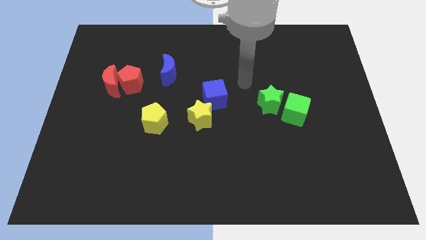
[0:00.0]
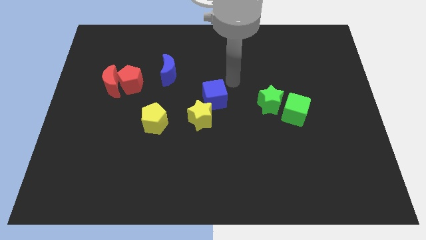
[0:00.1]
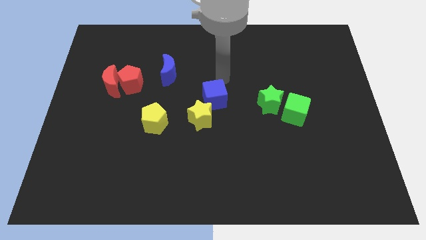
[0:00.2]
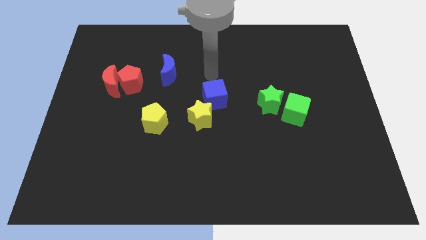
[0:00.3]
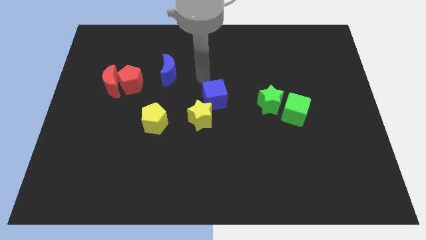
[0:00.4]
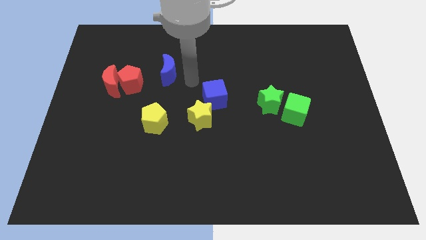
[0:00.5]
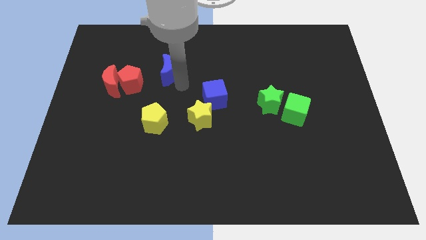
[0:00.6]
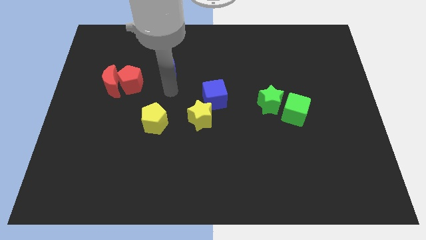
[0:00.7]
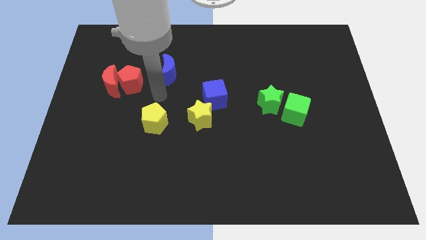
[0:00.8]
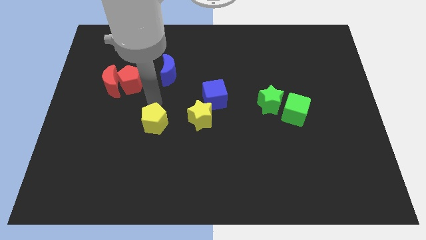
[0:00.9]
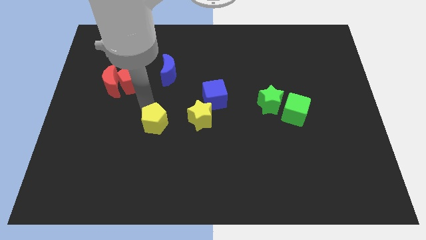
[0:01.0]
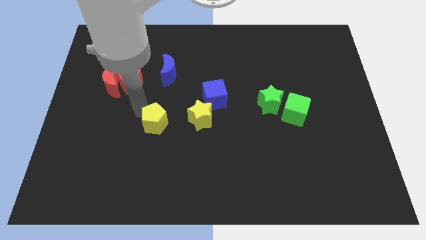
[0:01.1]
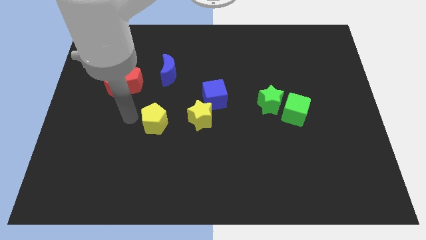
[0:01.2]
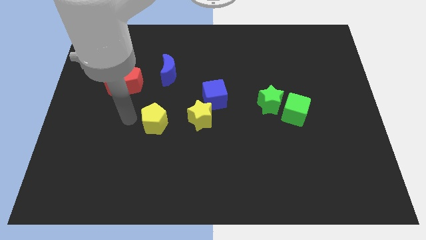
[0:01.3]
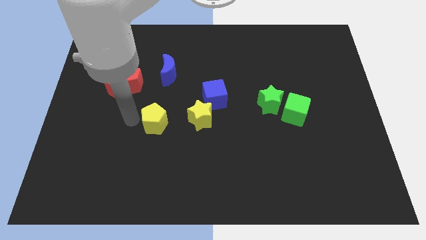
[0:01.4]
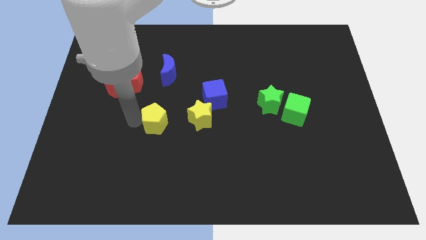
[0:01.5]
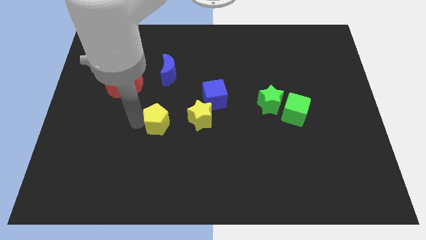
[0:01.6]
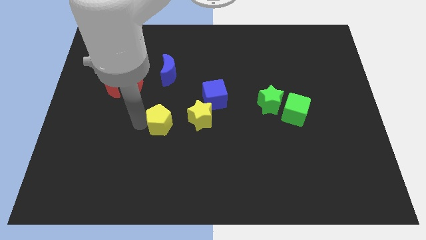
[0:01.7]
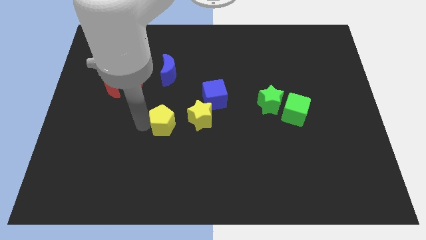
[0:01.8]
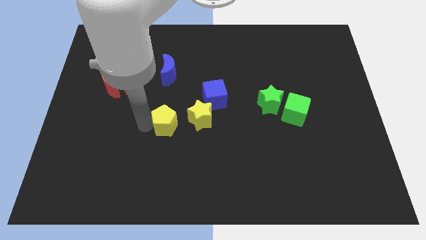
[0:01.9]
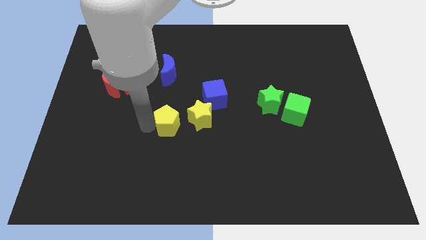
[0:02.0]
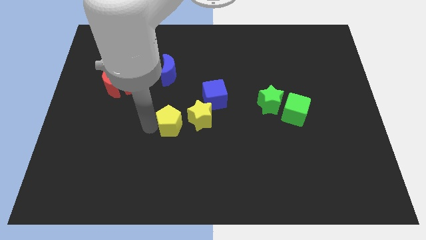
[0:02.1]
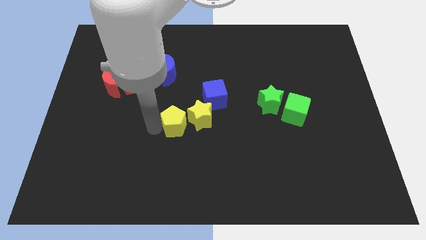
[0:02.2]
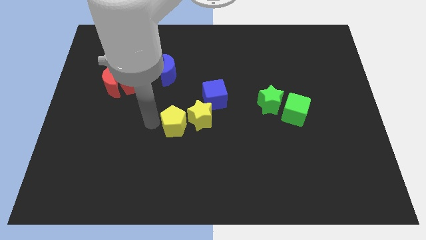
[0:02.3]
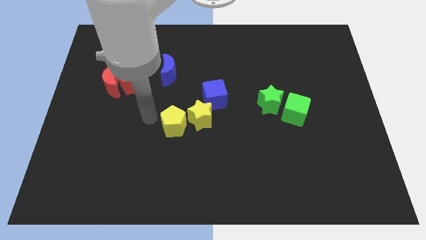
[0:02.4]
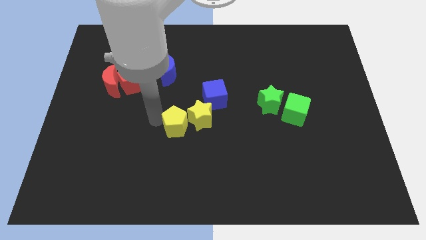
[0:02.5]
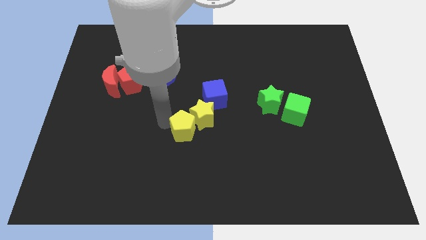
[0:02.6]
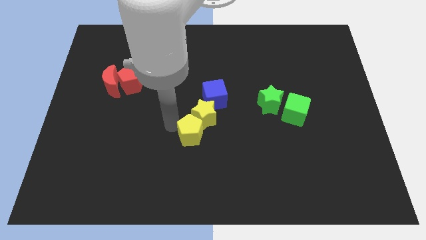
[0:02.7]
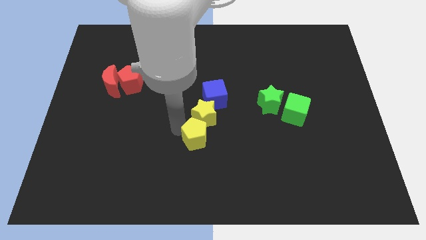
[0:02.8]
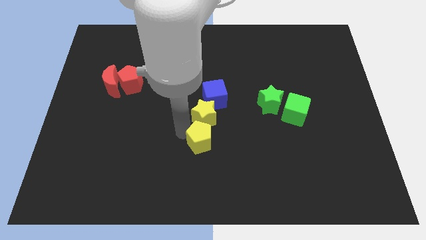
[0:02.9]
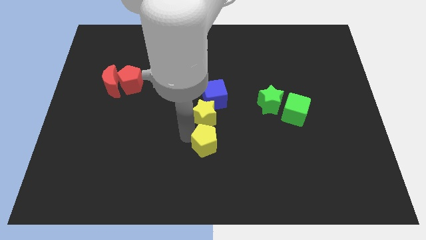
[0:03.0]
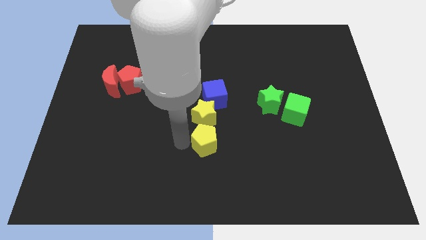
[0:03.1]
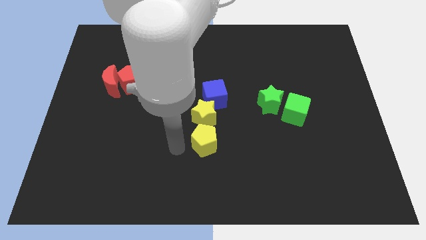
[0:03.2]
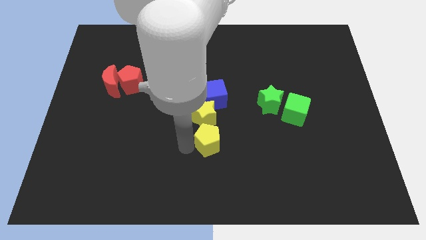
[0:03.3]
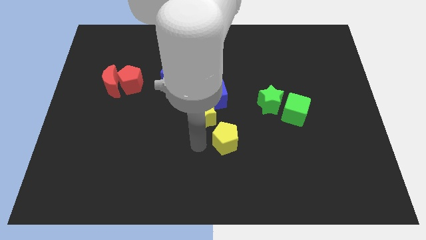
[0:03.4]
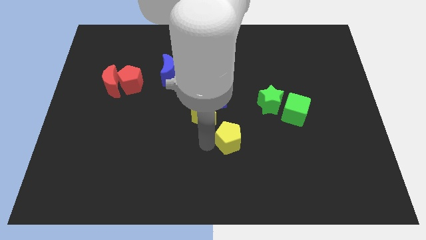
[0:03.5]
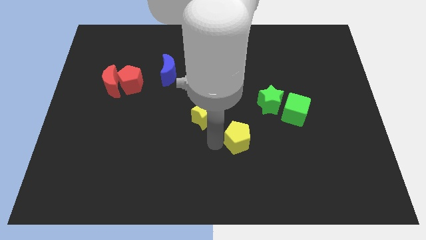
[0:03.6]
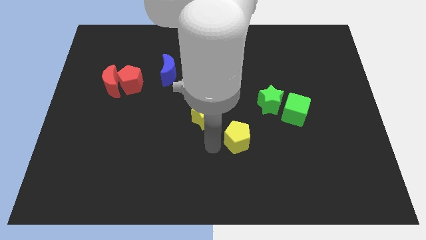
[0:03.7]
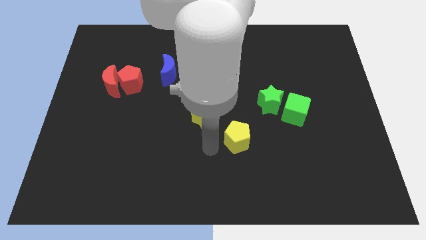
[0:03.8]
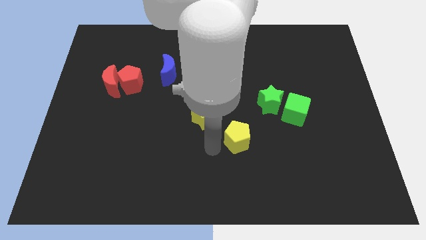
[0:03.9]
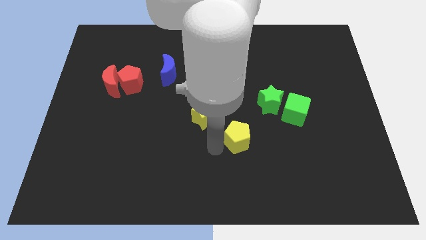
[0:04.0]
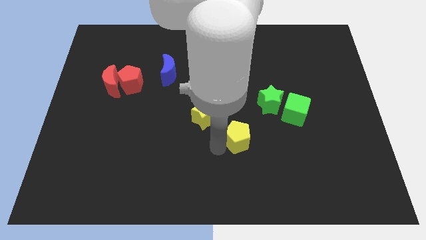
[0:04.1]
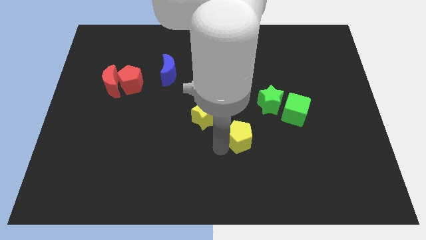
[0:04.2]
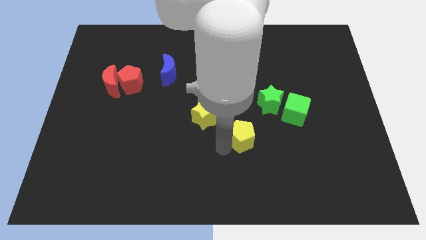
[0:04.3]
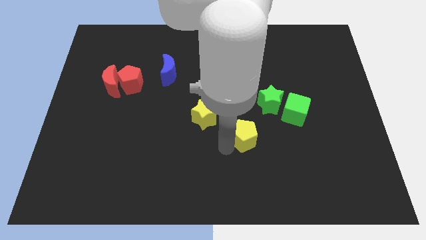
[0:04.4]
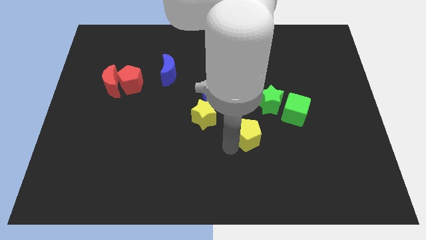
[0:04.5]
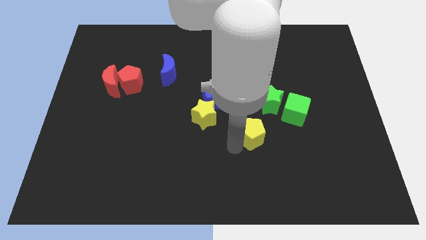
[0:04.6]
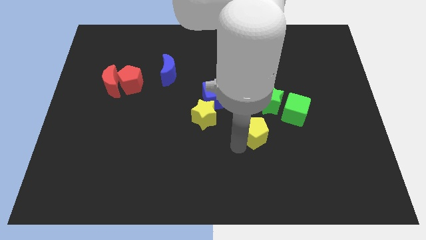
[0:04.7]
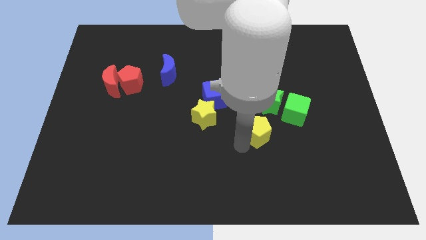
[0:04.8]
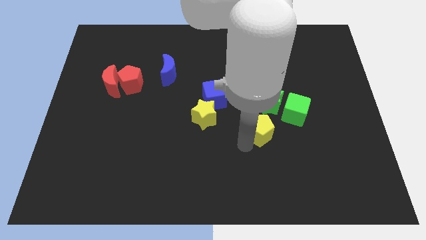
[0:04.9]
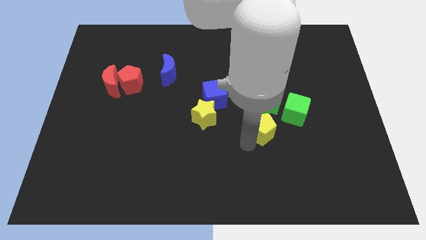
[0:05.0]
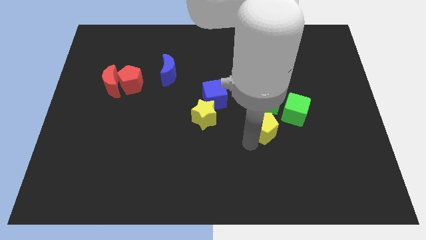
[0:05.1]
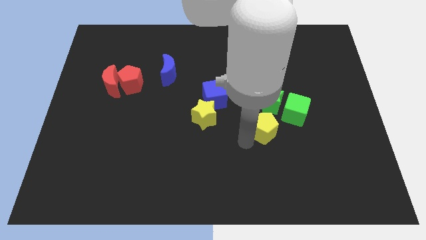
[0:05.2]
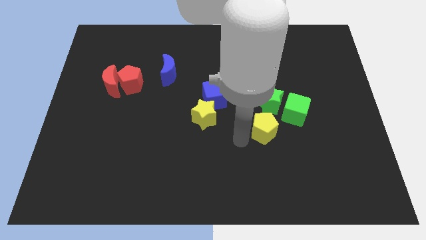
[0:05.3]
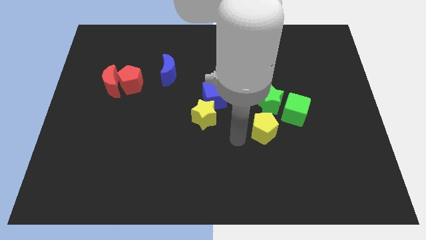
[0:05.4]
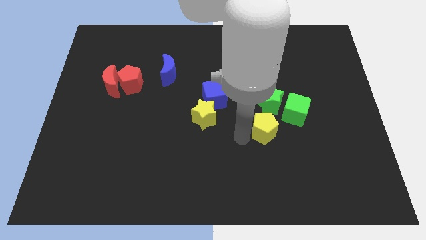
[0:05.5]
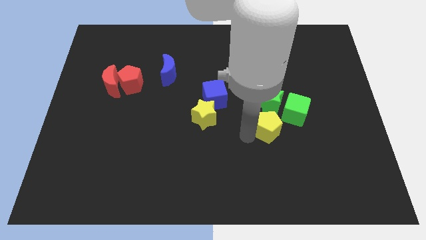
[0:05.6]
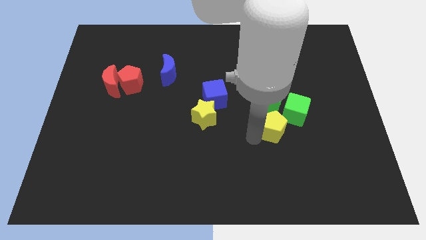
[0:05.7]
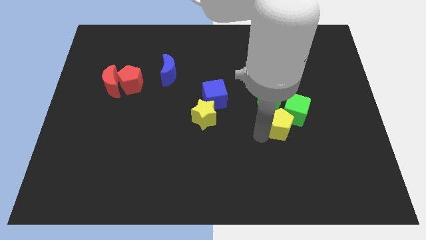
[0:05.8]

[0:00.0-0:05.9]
move the yellow pentagon next to the green cube
